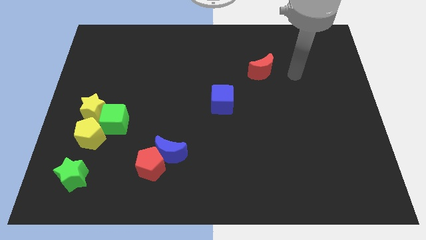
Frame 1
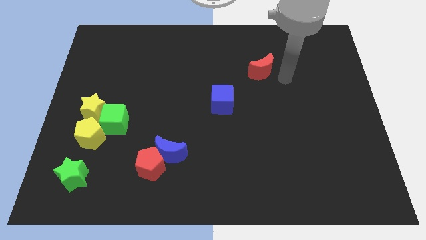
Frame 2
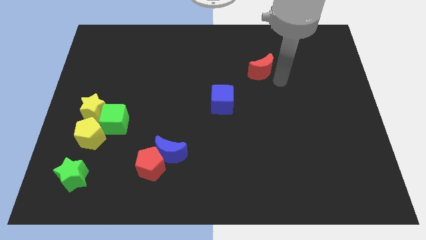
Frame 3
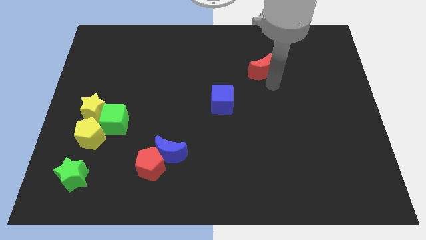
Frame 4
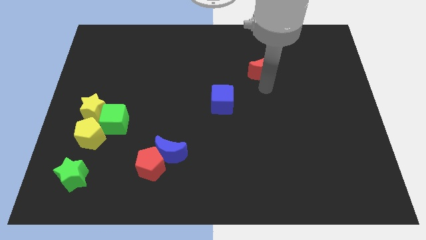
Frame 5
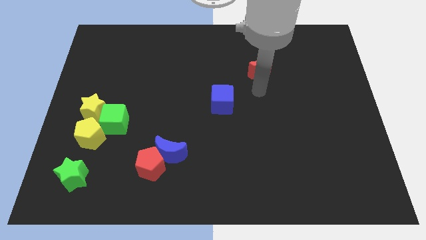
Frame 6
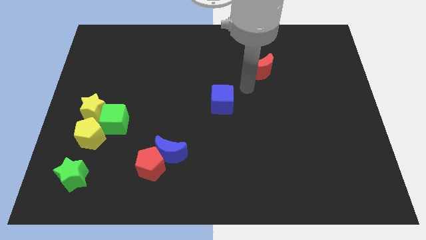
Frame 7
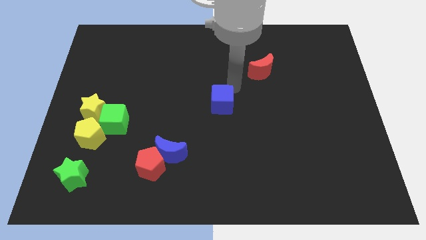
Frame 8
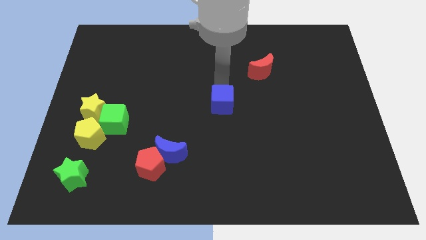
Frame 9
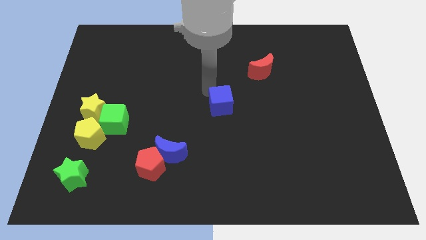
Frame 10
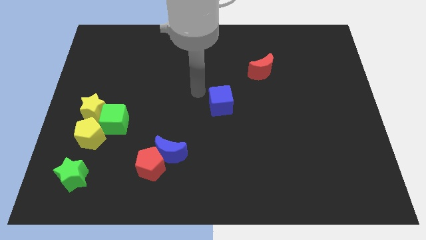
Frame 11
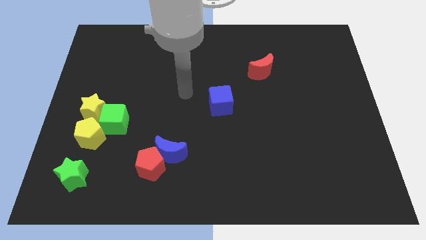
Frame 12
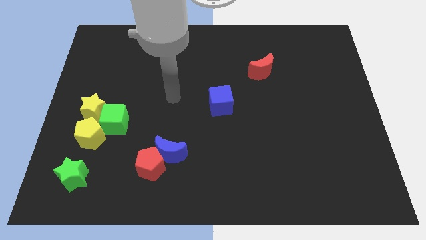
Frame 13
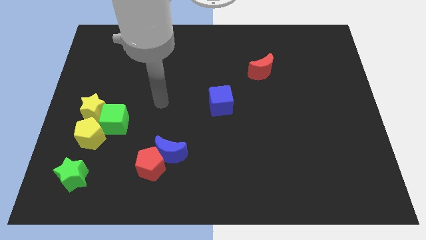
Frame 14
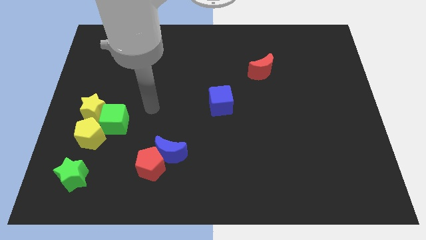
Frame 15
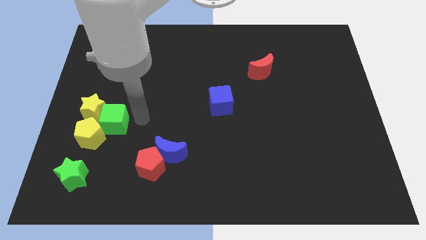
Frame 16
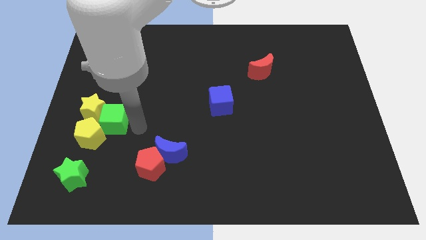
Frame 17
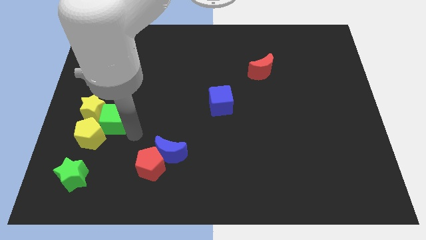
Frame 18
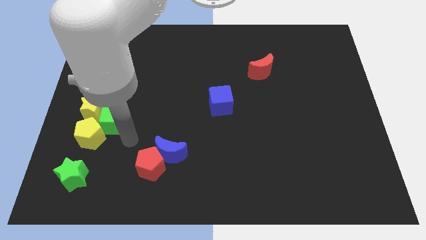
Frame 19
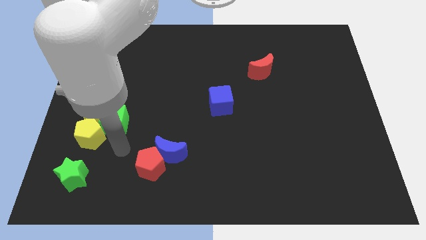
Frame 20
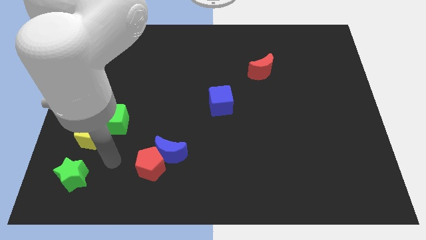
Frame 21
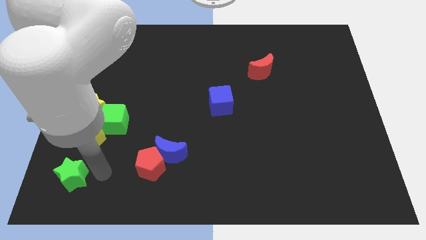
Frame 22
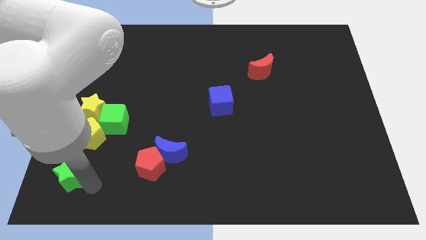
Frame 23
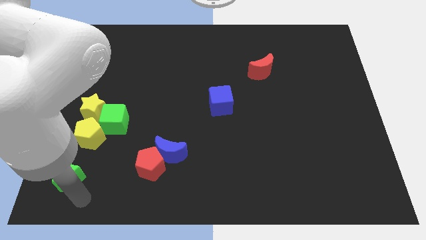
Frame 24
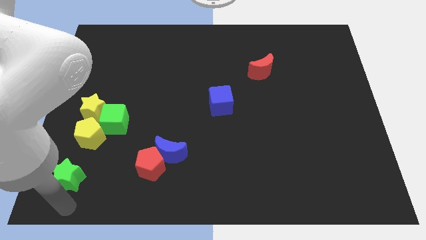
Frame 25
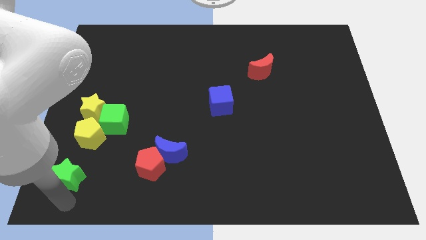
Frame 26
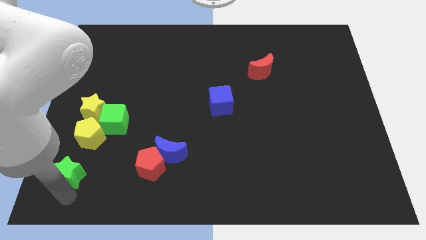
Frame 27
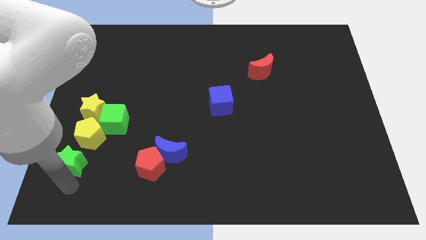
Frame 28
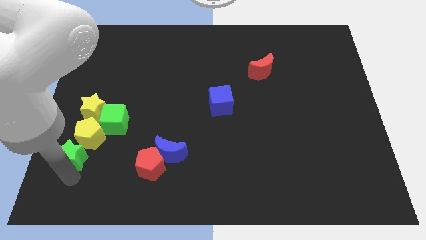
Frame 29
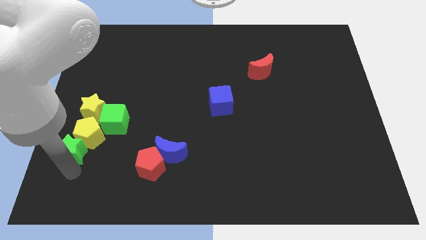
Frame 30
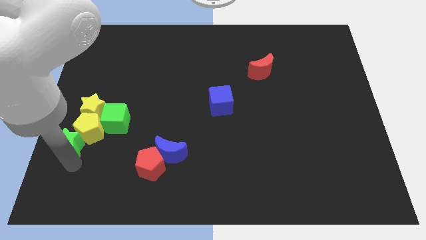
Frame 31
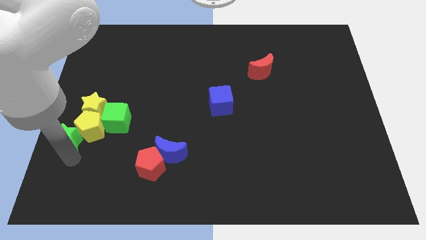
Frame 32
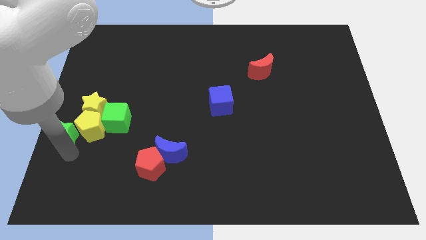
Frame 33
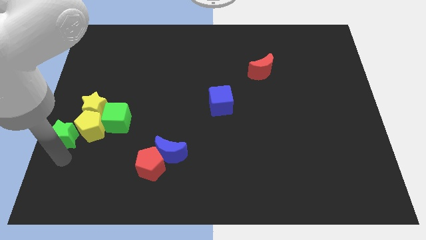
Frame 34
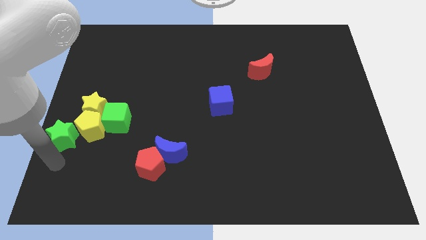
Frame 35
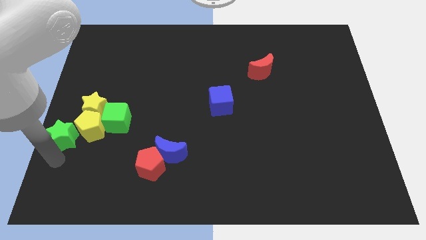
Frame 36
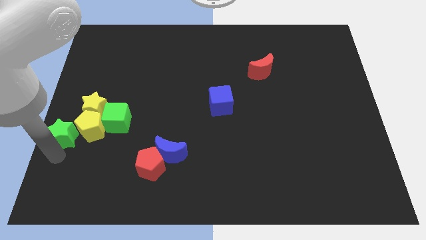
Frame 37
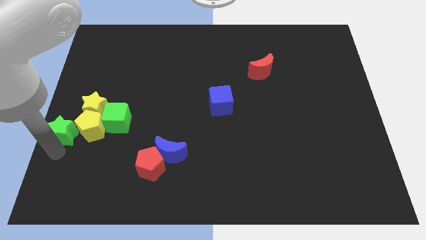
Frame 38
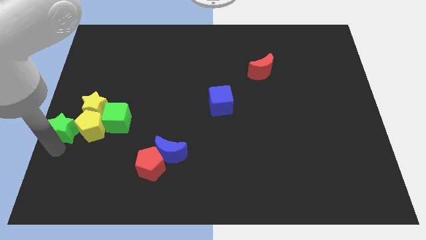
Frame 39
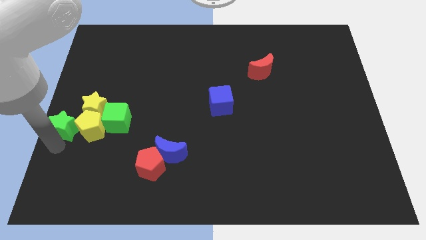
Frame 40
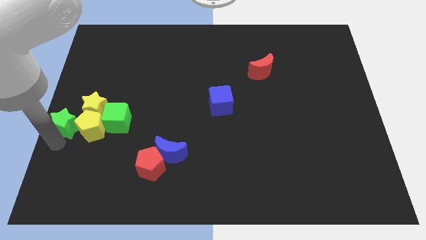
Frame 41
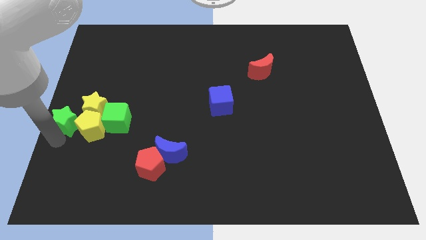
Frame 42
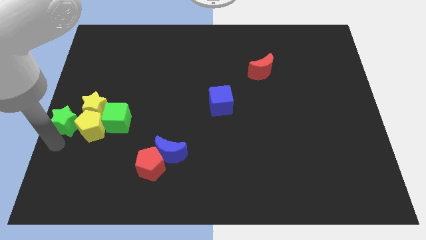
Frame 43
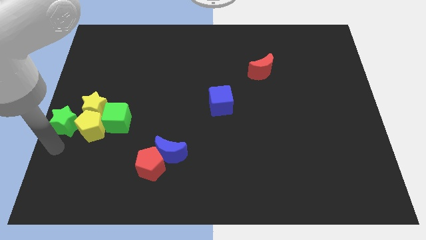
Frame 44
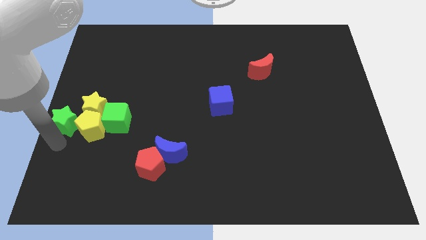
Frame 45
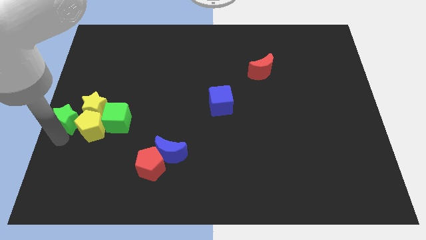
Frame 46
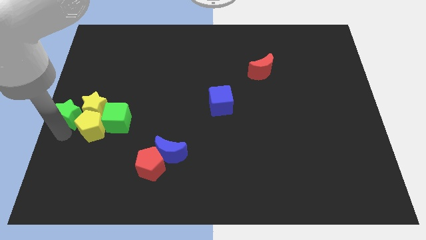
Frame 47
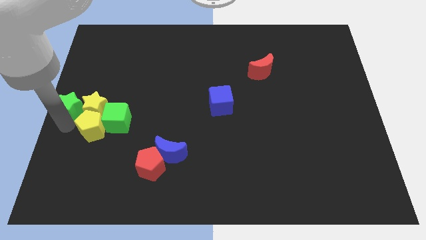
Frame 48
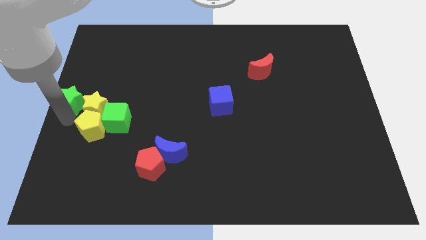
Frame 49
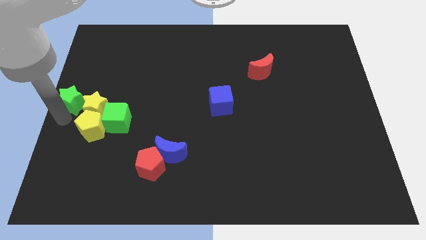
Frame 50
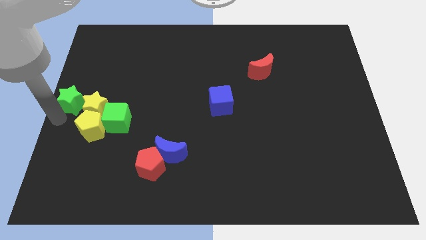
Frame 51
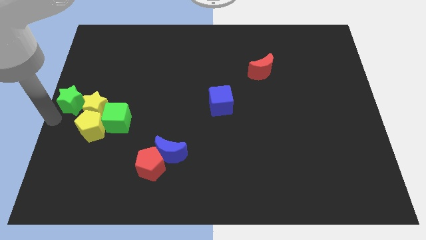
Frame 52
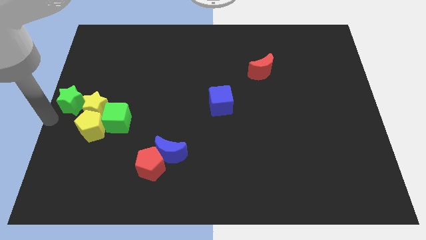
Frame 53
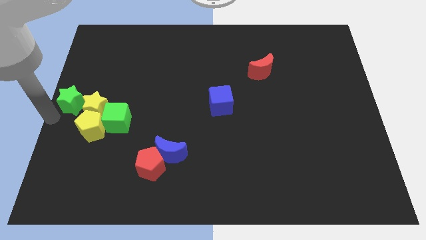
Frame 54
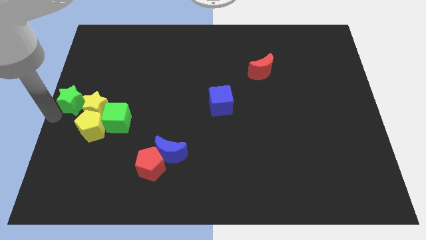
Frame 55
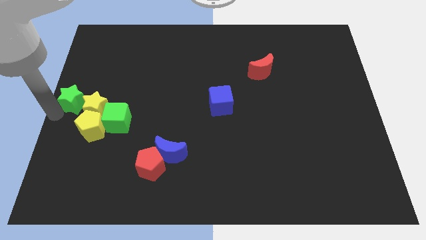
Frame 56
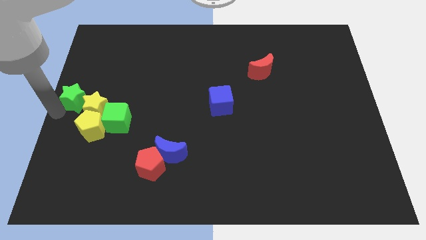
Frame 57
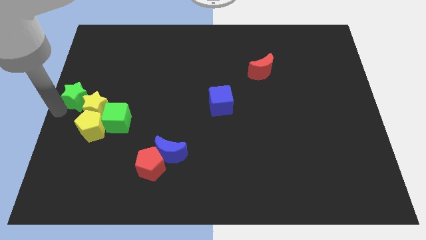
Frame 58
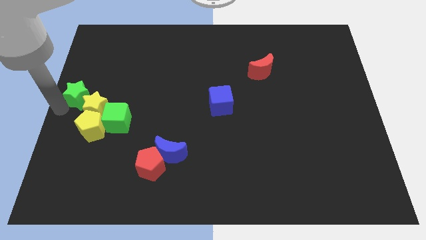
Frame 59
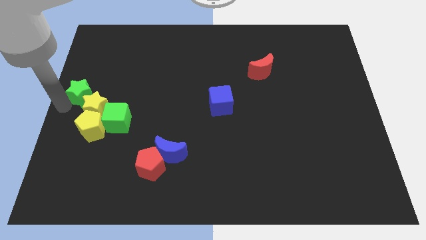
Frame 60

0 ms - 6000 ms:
push the green star above the yellow star

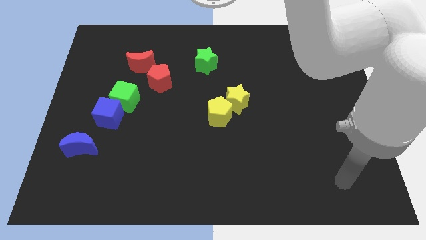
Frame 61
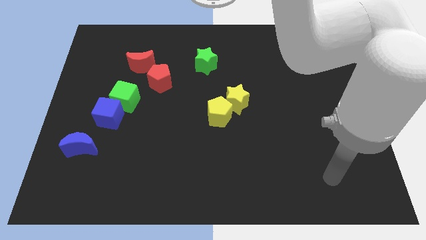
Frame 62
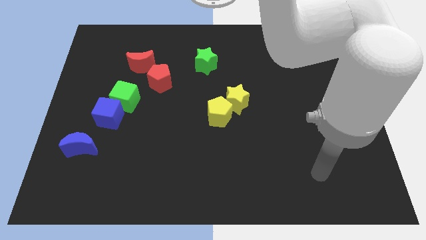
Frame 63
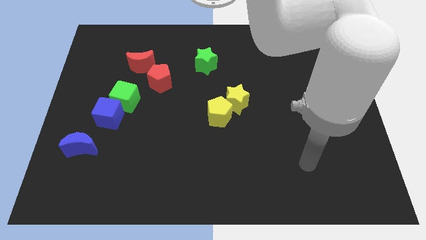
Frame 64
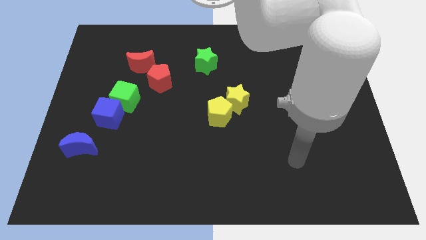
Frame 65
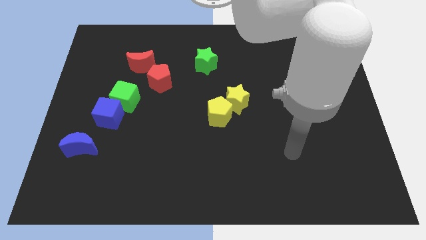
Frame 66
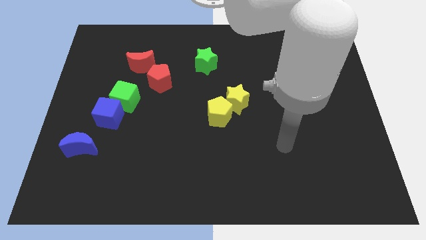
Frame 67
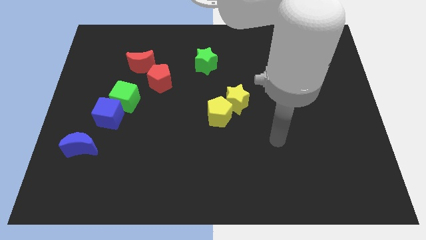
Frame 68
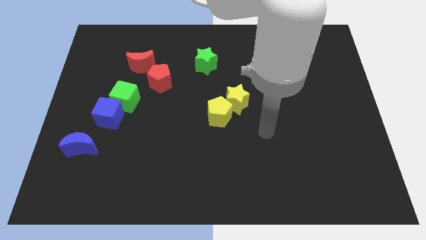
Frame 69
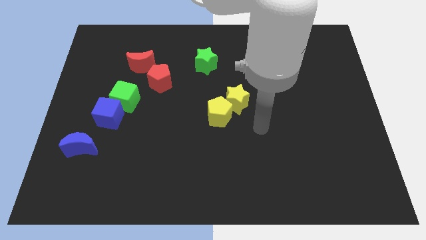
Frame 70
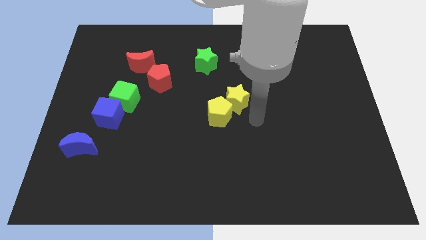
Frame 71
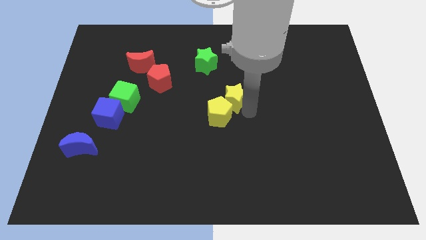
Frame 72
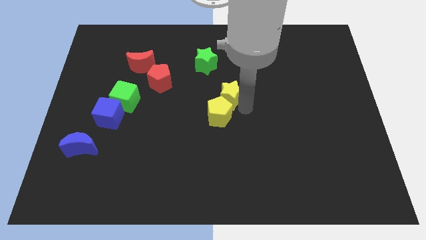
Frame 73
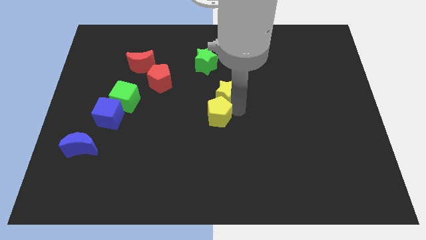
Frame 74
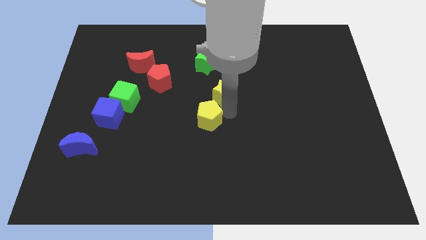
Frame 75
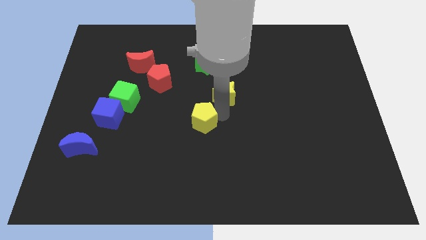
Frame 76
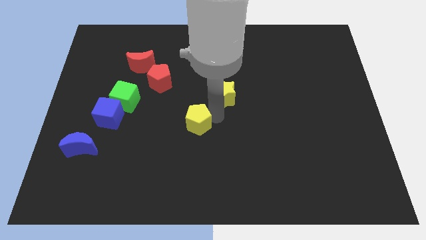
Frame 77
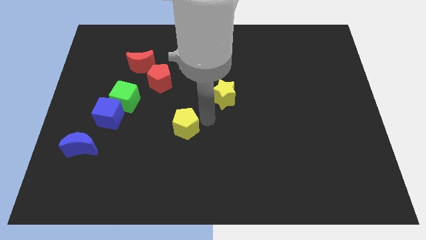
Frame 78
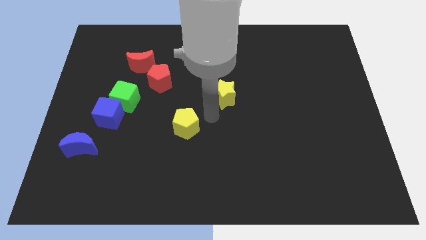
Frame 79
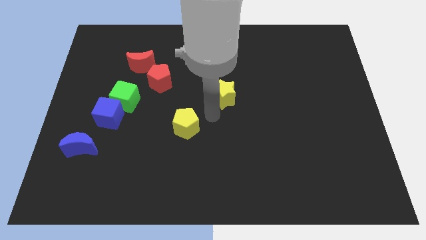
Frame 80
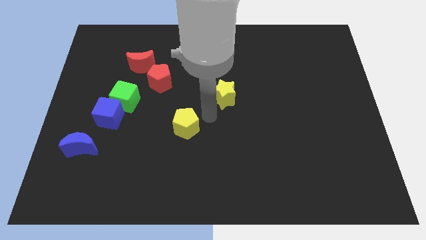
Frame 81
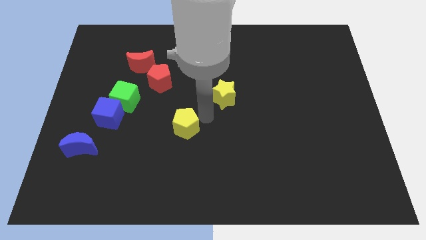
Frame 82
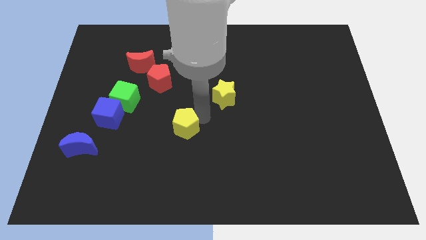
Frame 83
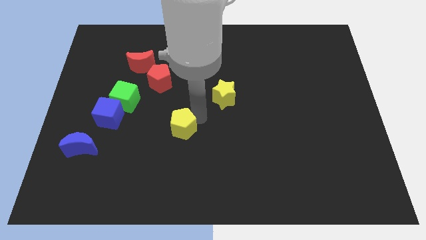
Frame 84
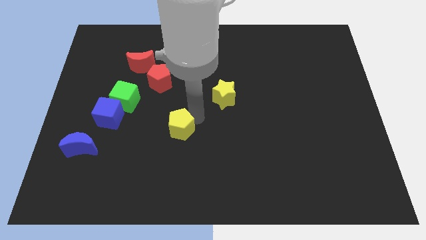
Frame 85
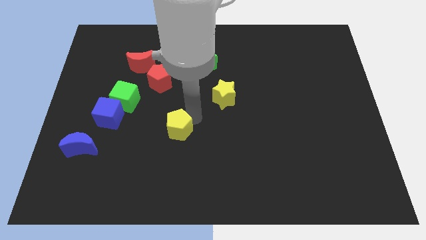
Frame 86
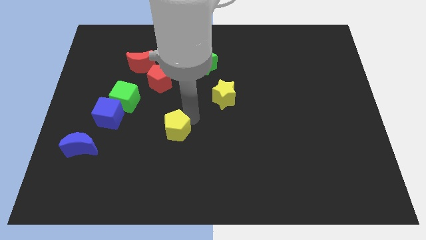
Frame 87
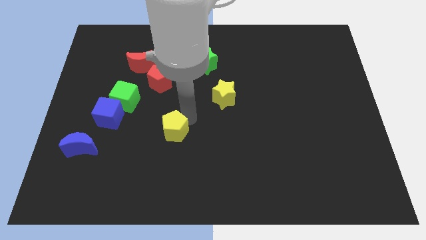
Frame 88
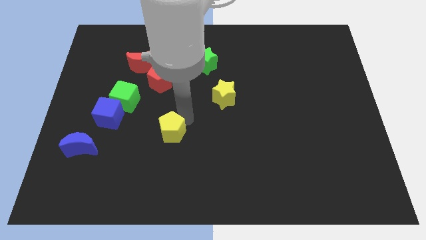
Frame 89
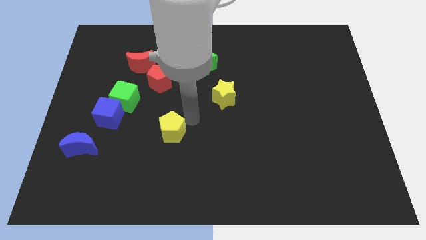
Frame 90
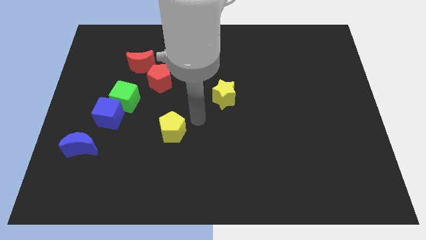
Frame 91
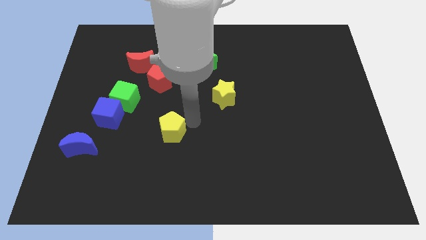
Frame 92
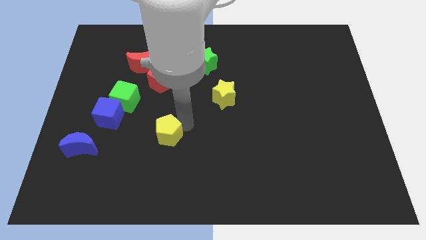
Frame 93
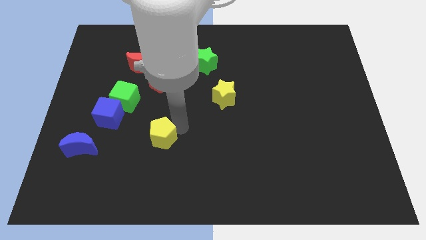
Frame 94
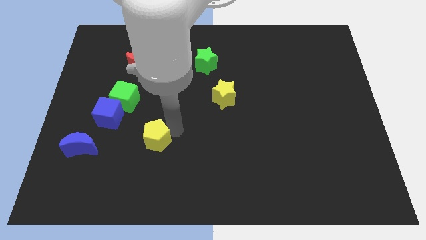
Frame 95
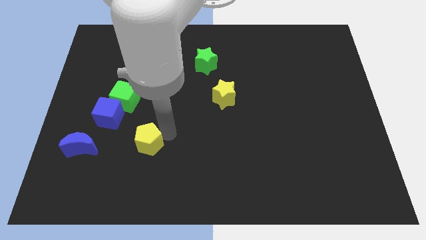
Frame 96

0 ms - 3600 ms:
move the yellow pentagon to the right side of the blue moon
